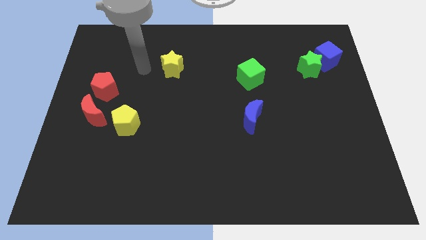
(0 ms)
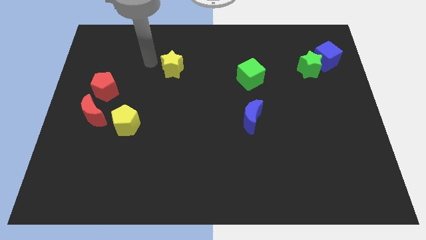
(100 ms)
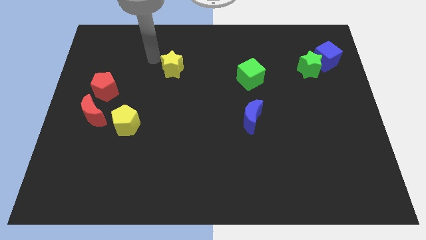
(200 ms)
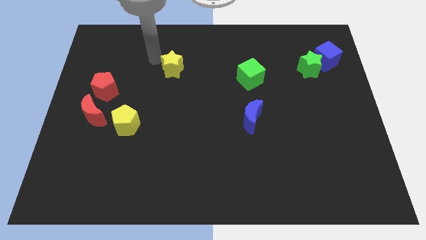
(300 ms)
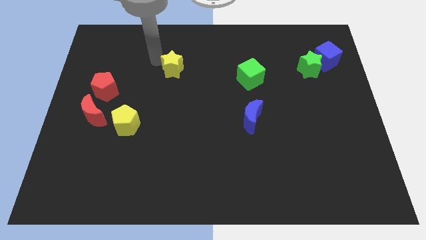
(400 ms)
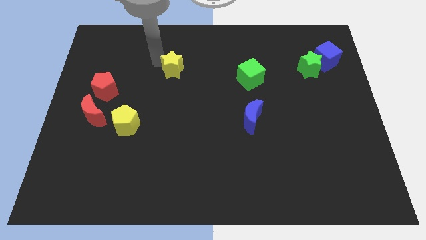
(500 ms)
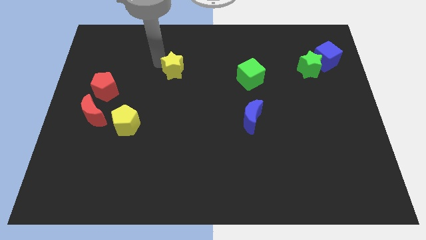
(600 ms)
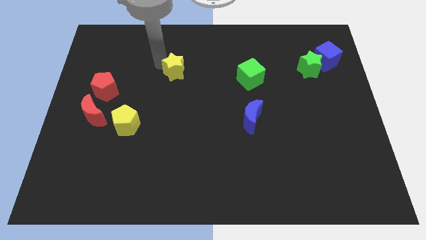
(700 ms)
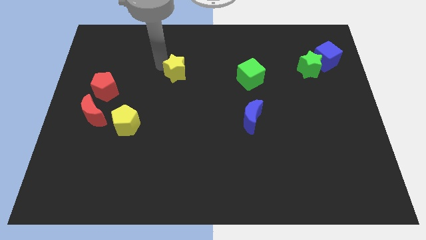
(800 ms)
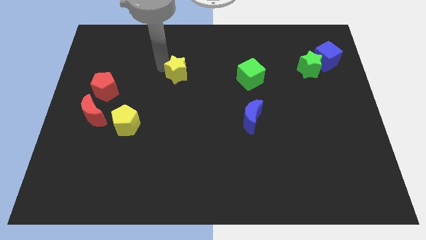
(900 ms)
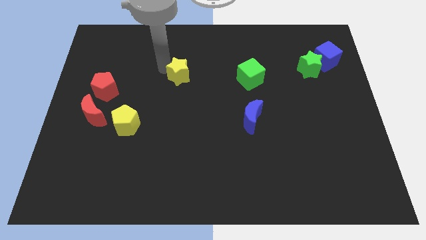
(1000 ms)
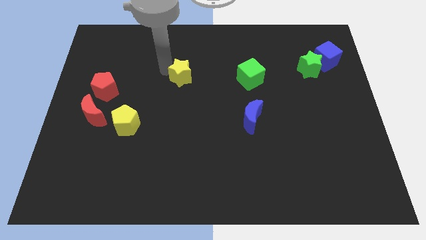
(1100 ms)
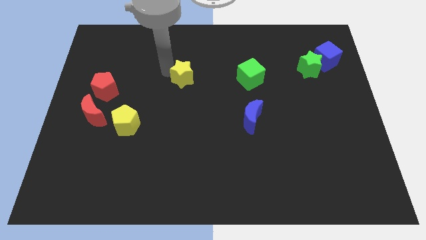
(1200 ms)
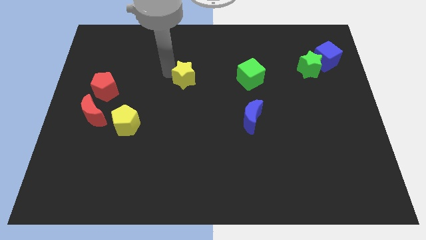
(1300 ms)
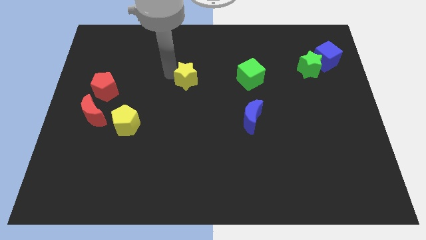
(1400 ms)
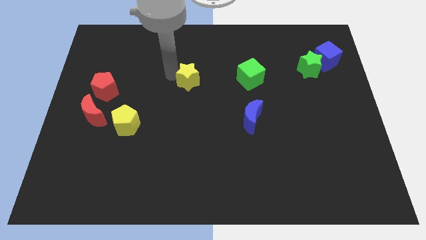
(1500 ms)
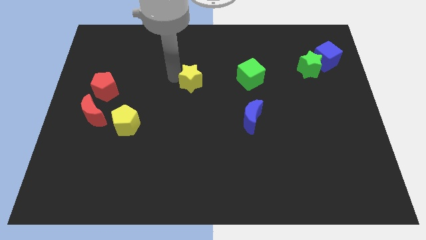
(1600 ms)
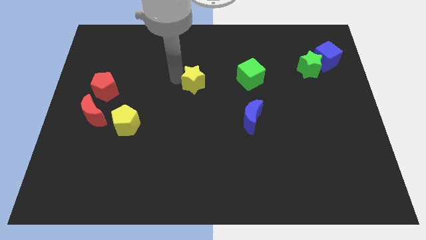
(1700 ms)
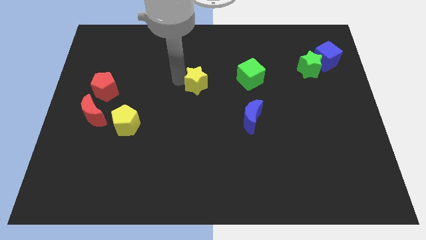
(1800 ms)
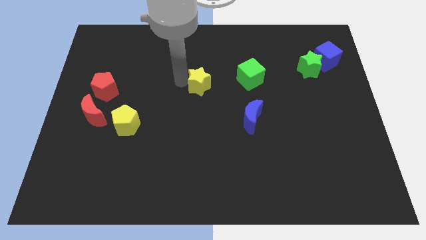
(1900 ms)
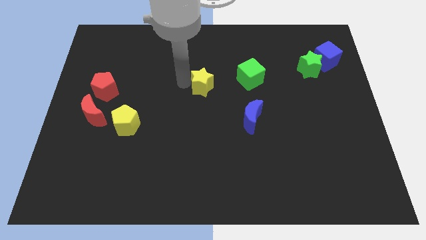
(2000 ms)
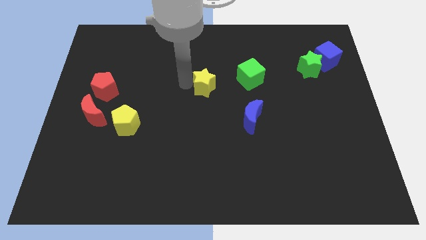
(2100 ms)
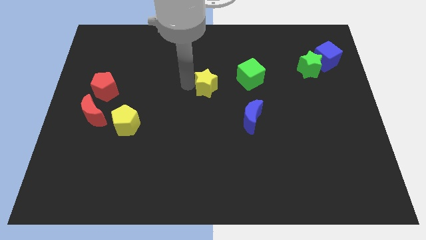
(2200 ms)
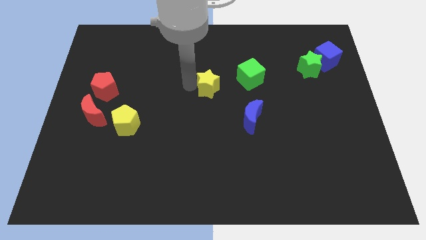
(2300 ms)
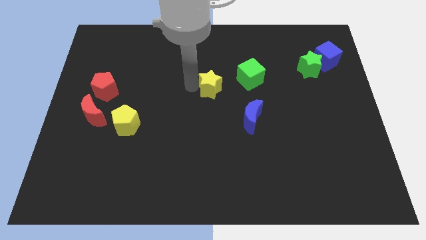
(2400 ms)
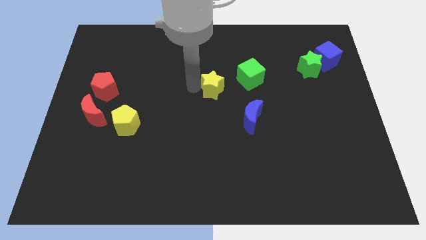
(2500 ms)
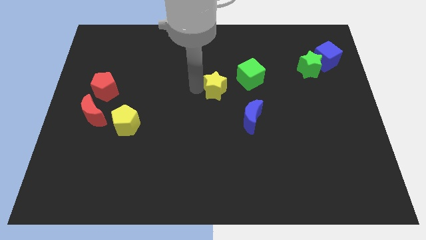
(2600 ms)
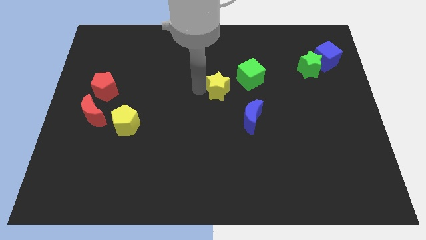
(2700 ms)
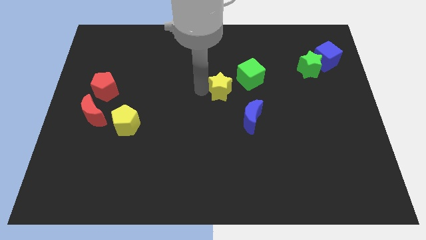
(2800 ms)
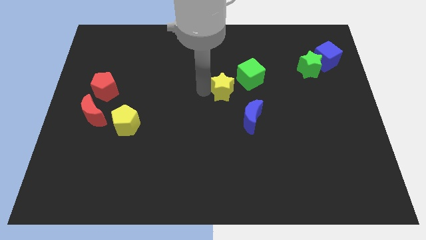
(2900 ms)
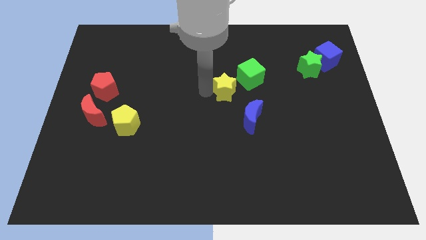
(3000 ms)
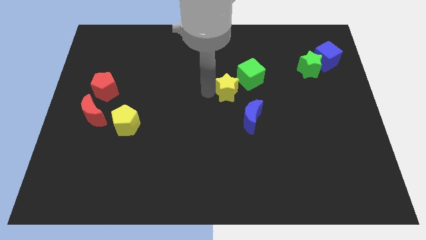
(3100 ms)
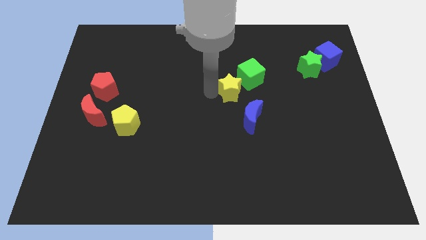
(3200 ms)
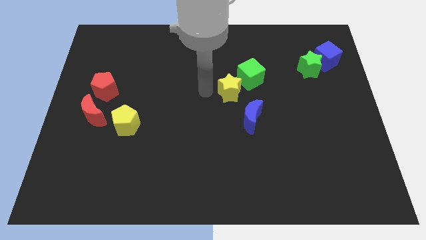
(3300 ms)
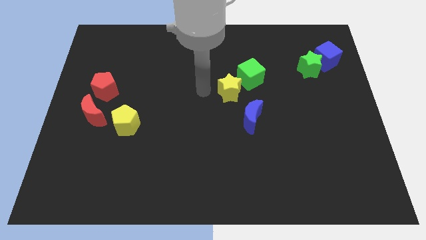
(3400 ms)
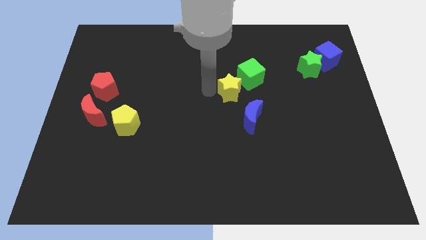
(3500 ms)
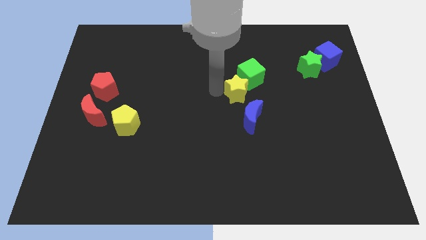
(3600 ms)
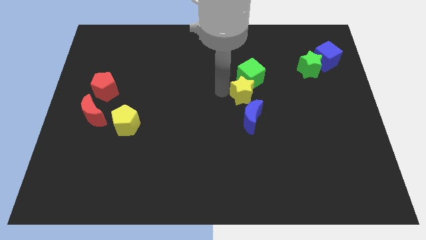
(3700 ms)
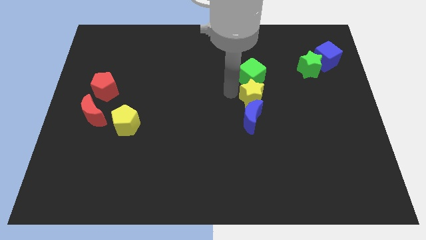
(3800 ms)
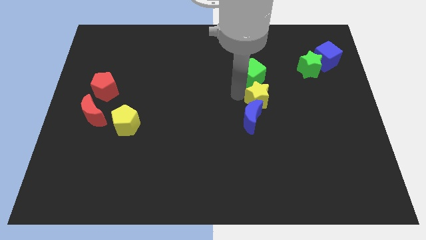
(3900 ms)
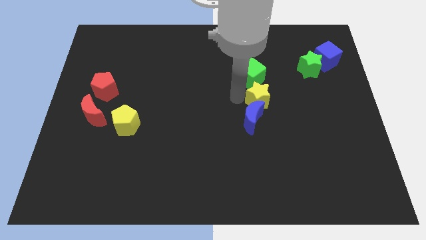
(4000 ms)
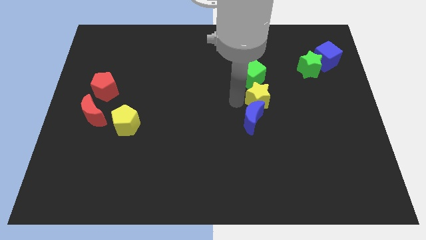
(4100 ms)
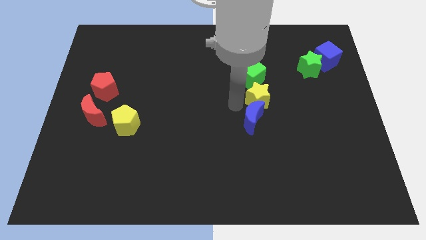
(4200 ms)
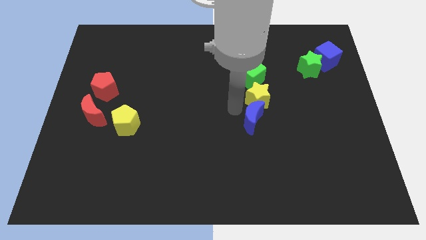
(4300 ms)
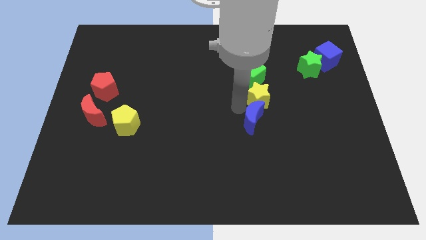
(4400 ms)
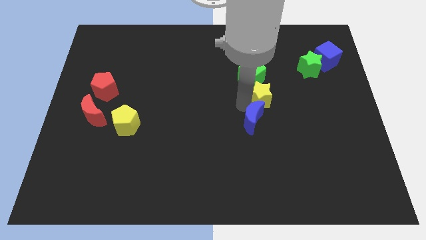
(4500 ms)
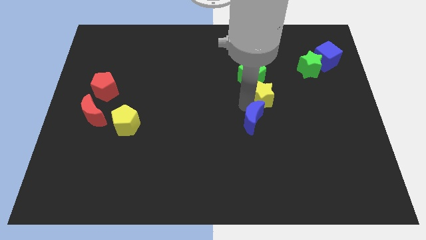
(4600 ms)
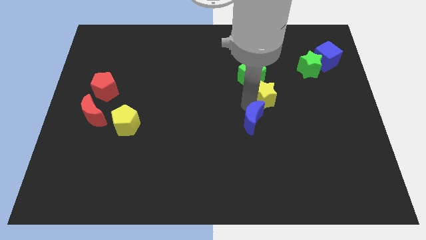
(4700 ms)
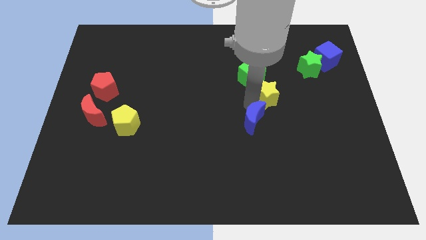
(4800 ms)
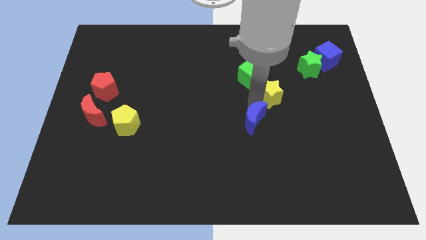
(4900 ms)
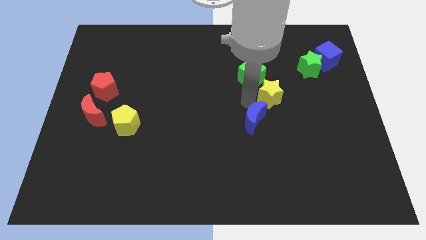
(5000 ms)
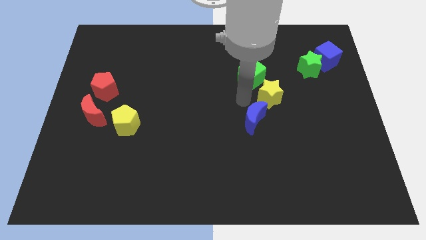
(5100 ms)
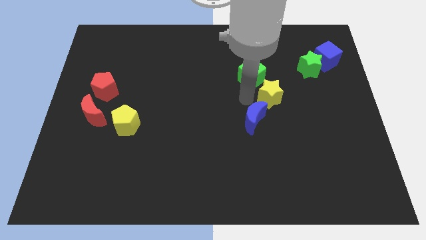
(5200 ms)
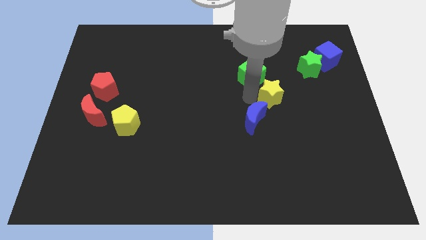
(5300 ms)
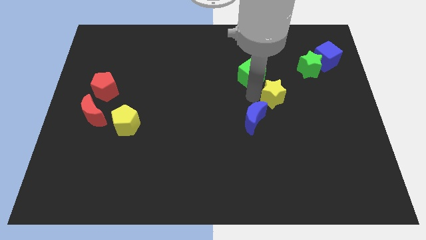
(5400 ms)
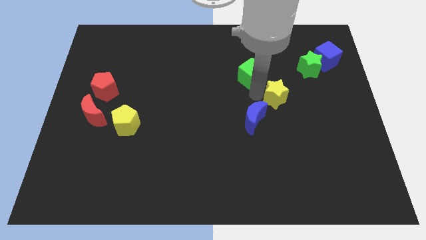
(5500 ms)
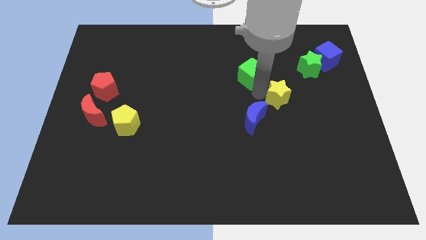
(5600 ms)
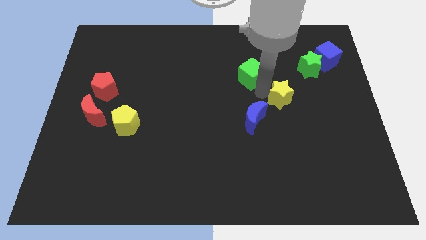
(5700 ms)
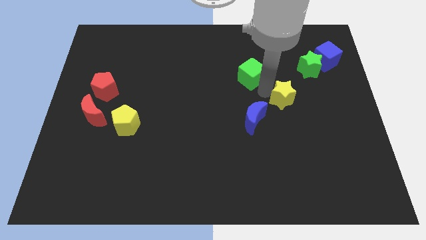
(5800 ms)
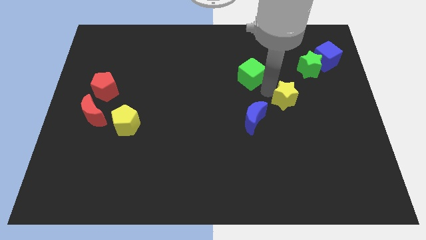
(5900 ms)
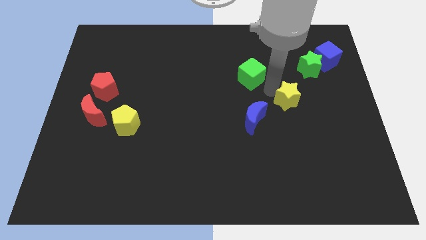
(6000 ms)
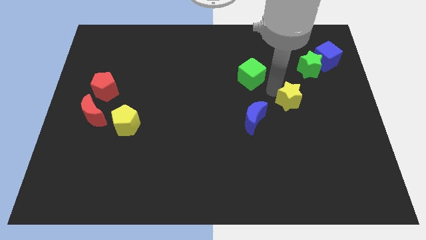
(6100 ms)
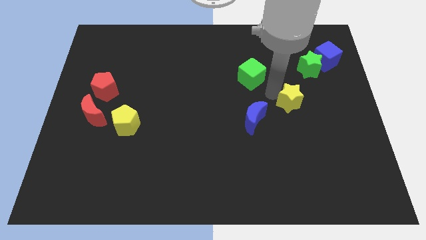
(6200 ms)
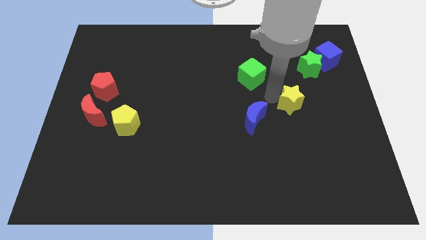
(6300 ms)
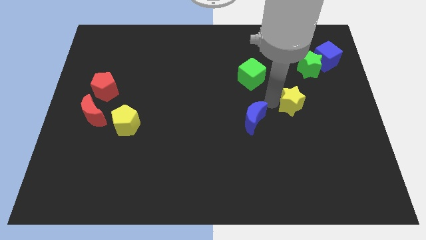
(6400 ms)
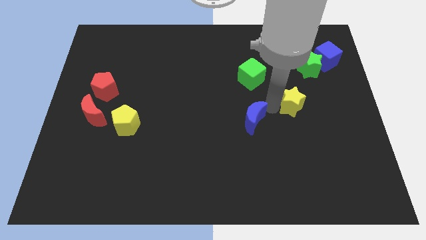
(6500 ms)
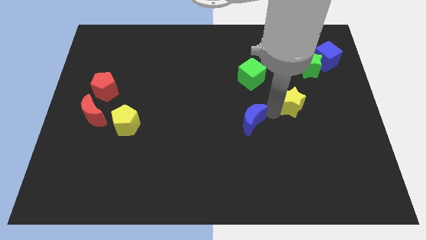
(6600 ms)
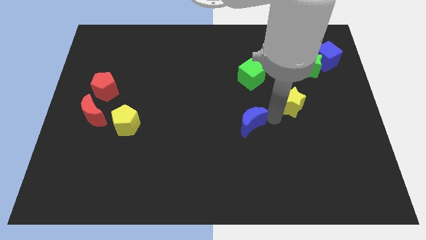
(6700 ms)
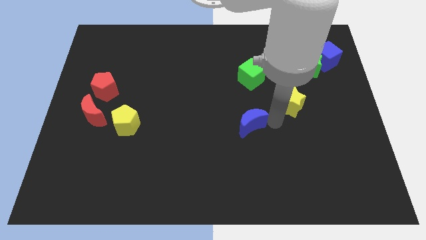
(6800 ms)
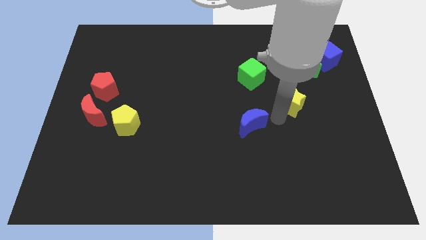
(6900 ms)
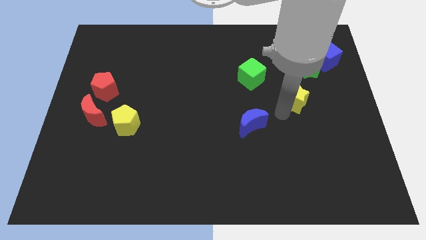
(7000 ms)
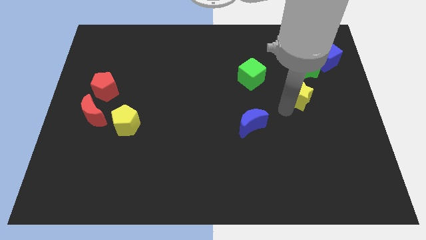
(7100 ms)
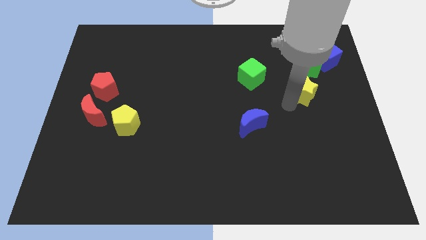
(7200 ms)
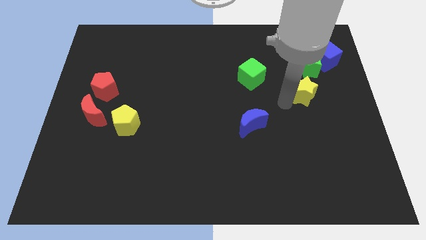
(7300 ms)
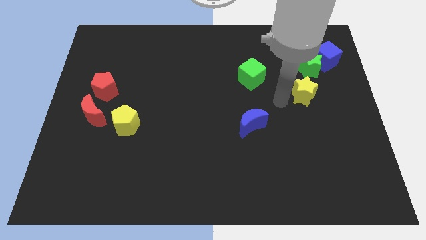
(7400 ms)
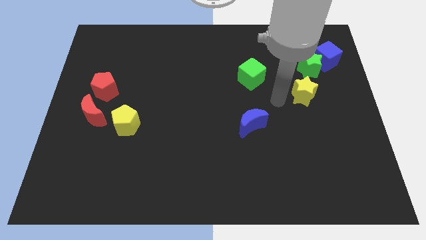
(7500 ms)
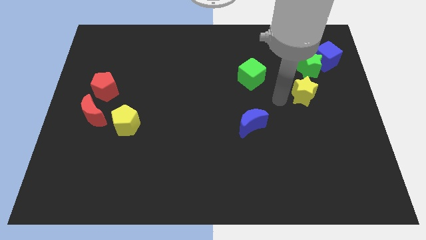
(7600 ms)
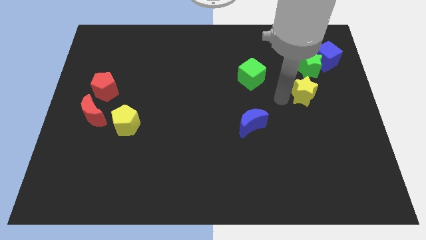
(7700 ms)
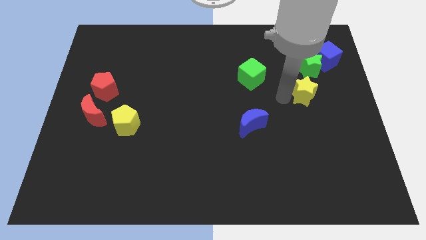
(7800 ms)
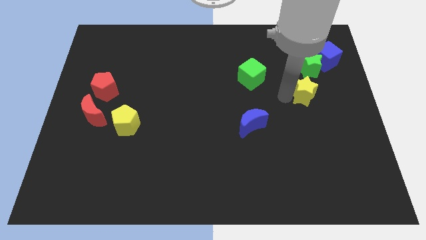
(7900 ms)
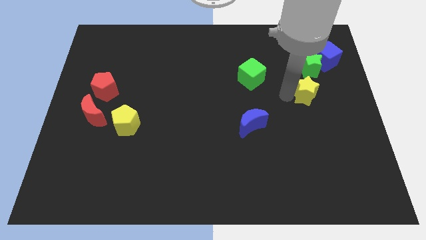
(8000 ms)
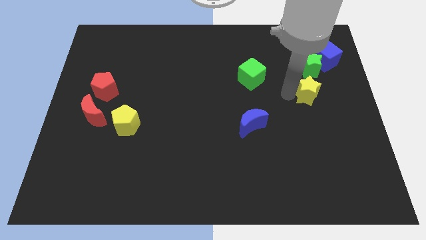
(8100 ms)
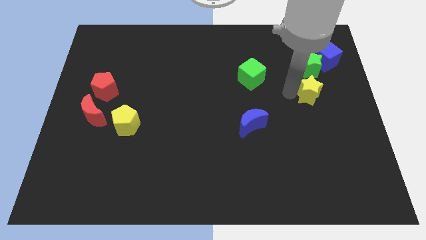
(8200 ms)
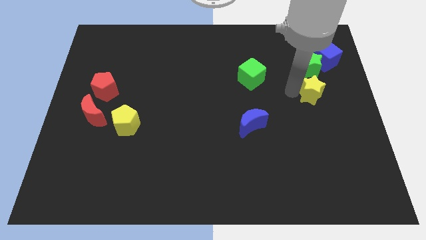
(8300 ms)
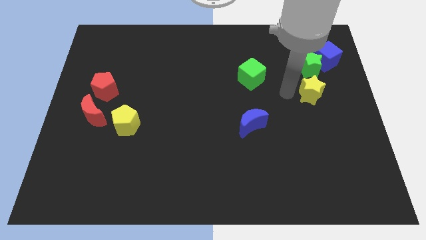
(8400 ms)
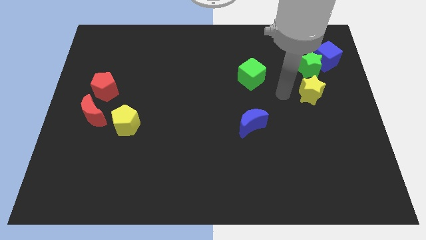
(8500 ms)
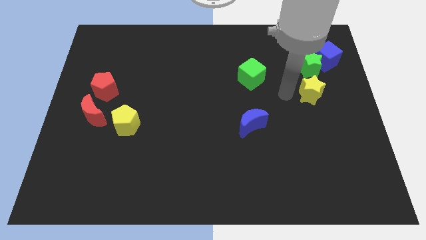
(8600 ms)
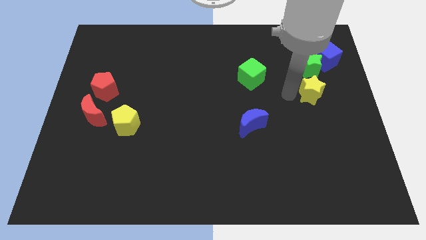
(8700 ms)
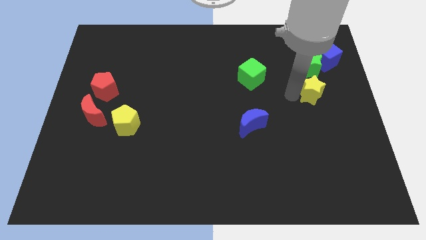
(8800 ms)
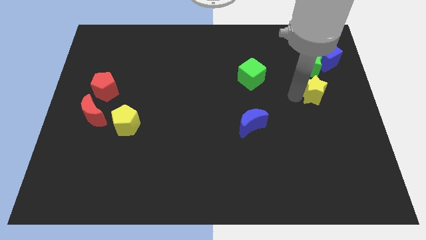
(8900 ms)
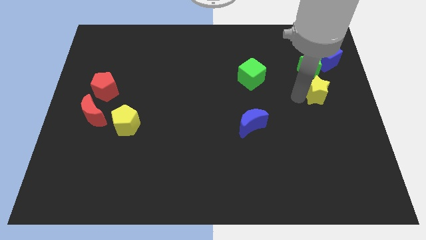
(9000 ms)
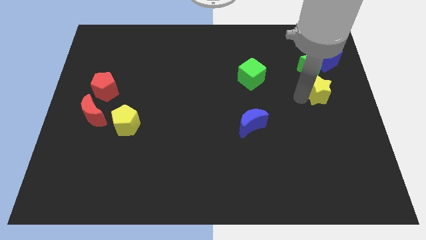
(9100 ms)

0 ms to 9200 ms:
move the yellow star to the right side
